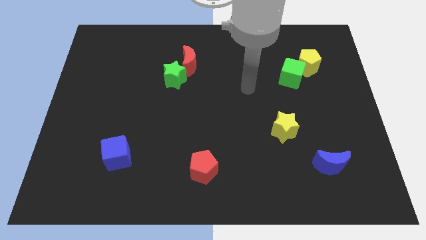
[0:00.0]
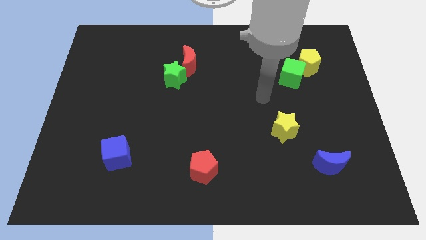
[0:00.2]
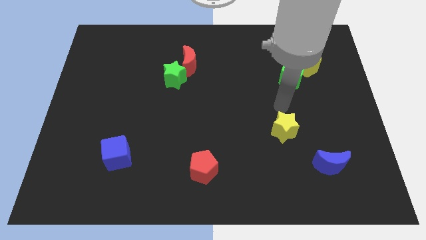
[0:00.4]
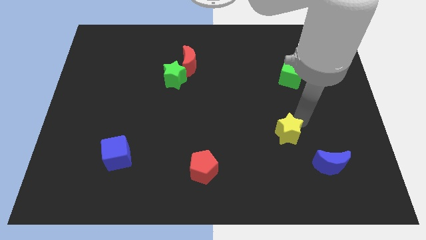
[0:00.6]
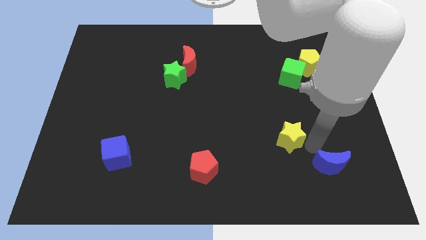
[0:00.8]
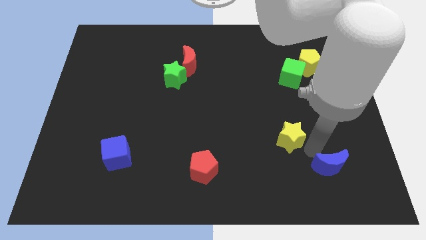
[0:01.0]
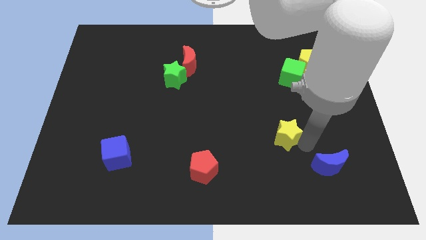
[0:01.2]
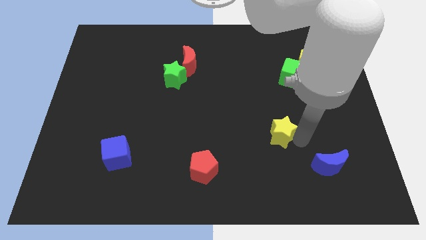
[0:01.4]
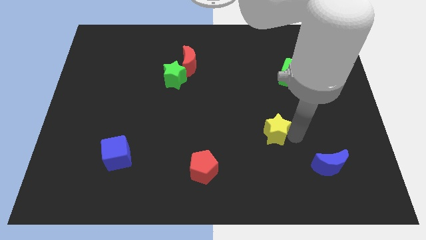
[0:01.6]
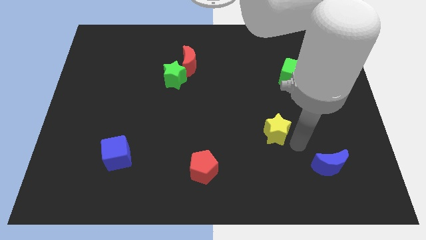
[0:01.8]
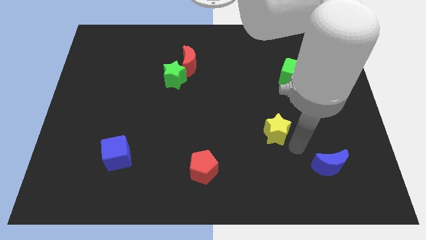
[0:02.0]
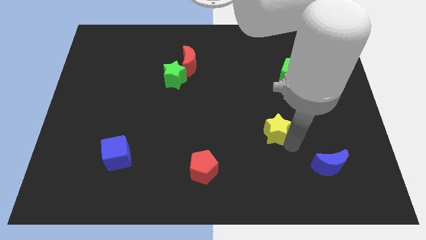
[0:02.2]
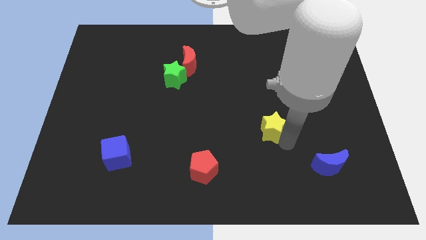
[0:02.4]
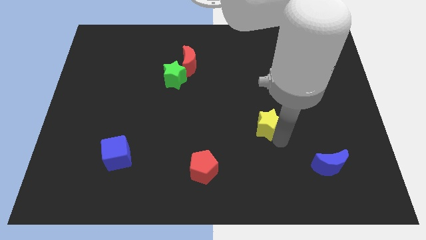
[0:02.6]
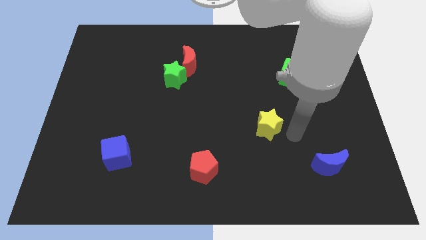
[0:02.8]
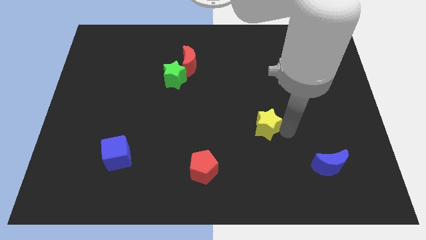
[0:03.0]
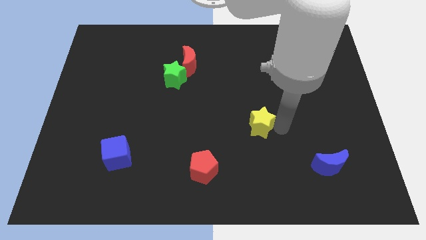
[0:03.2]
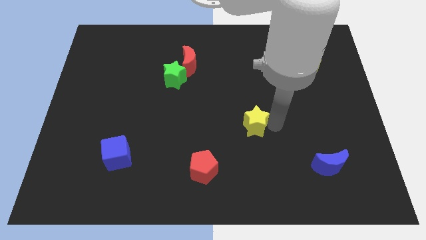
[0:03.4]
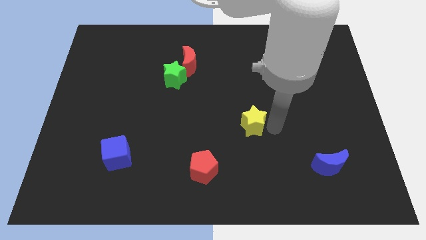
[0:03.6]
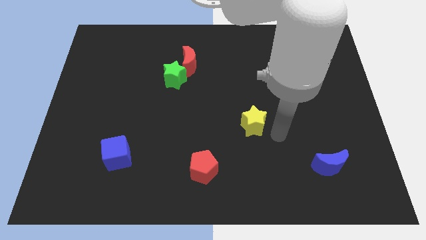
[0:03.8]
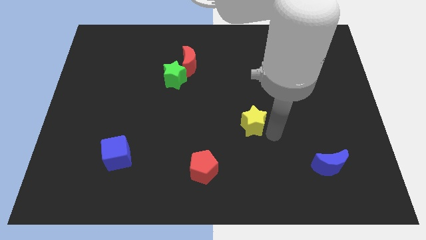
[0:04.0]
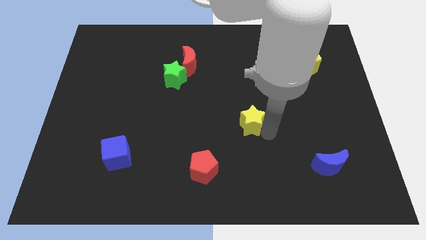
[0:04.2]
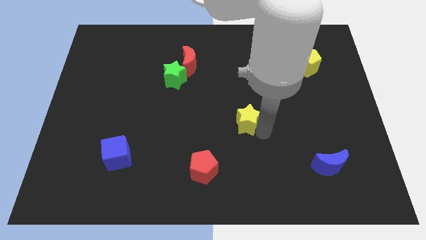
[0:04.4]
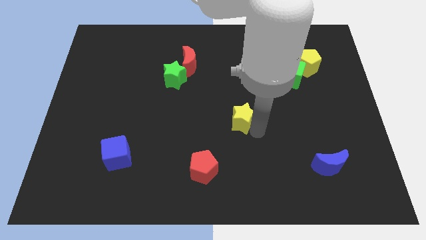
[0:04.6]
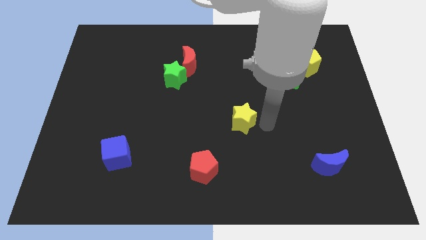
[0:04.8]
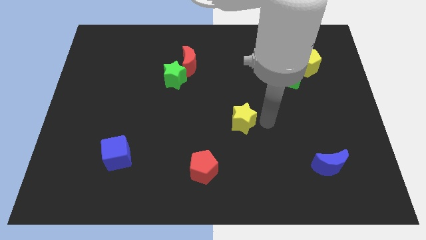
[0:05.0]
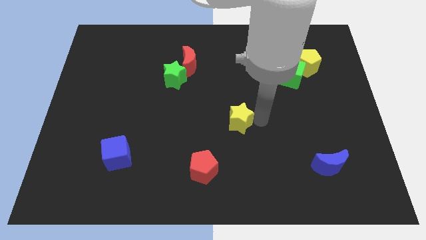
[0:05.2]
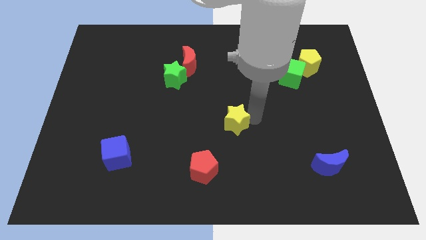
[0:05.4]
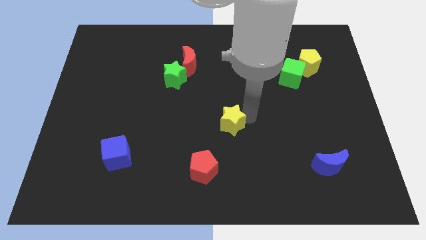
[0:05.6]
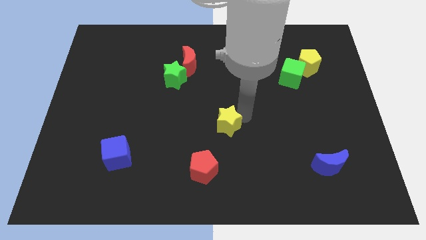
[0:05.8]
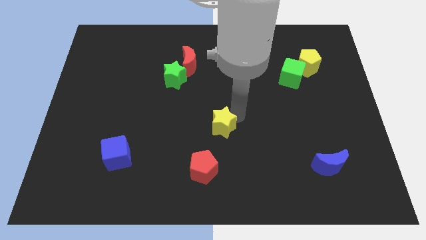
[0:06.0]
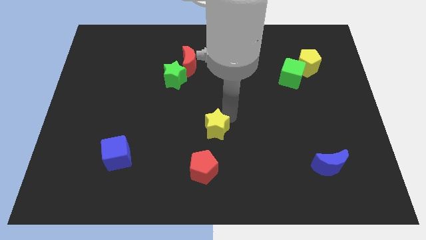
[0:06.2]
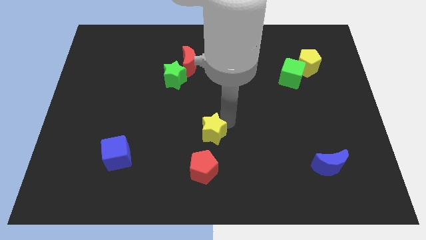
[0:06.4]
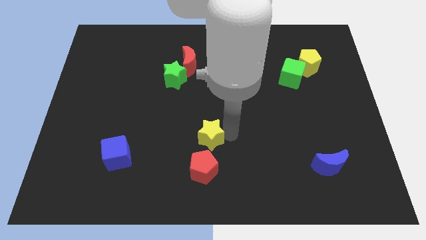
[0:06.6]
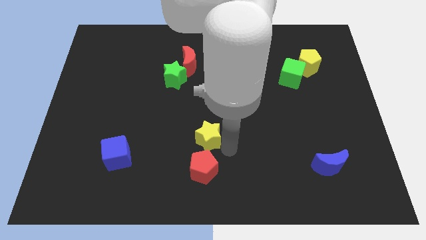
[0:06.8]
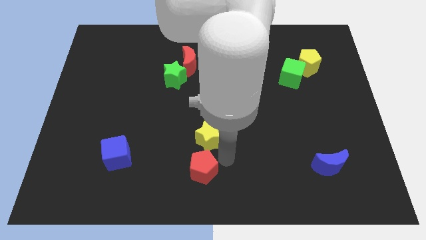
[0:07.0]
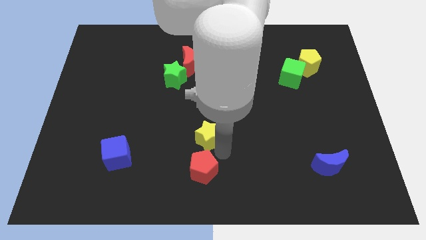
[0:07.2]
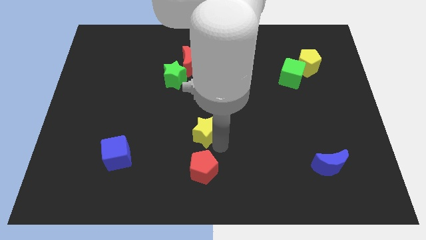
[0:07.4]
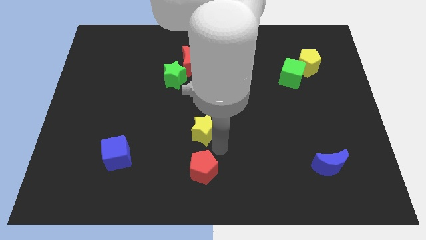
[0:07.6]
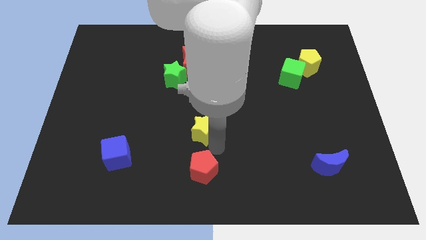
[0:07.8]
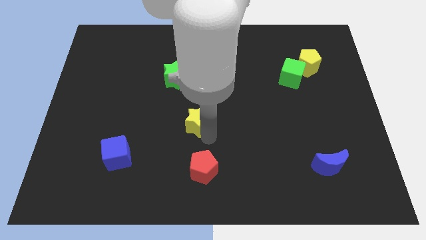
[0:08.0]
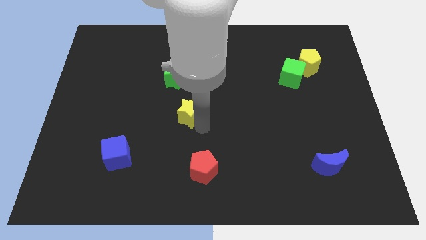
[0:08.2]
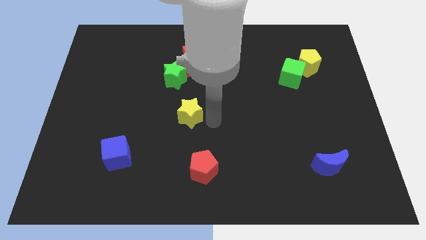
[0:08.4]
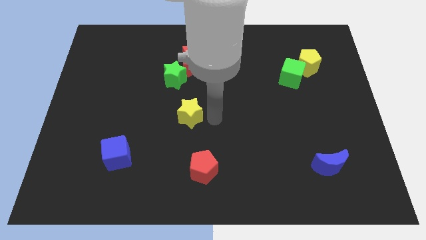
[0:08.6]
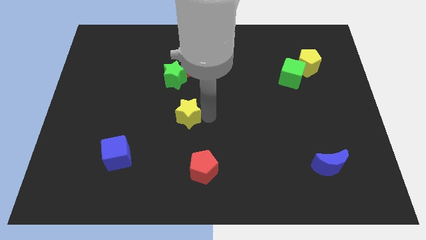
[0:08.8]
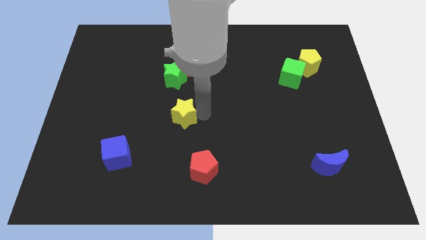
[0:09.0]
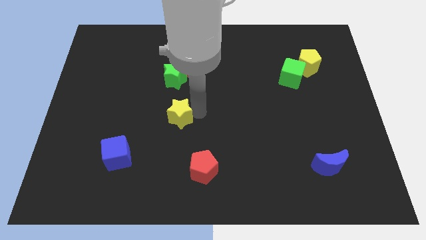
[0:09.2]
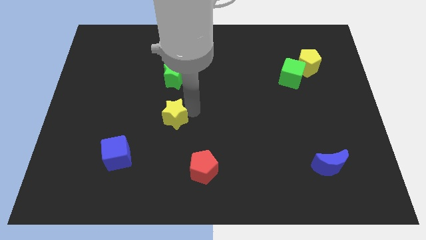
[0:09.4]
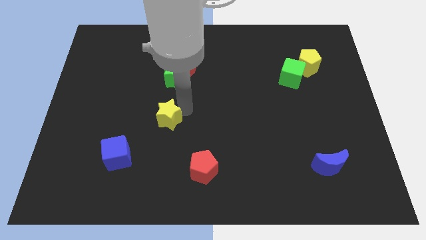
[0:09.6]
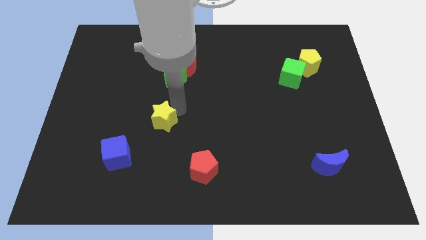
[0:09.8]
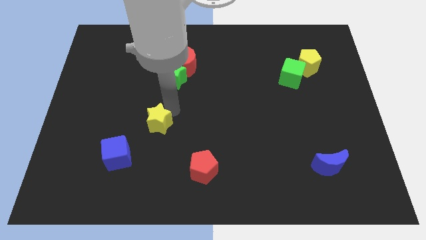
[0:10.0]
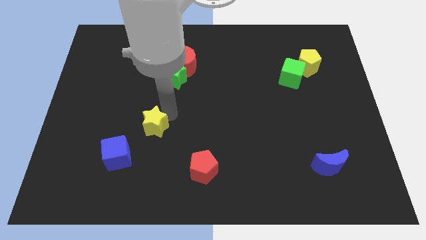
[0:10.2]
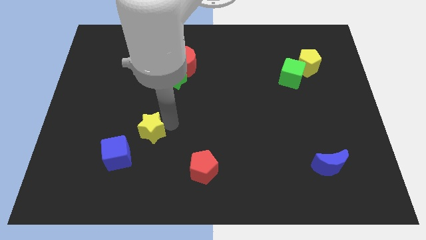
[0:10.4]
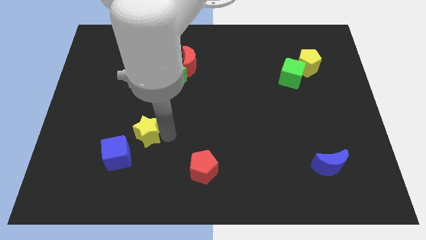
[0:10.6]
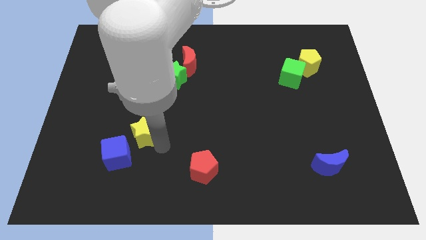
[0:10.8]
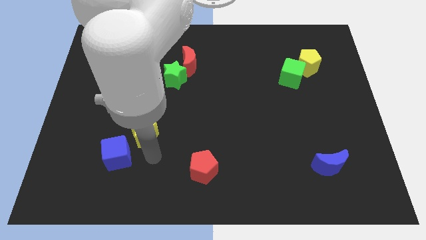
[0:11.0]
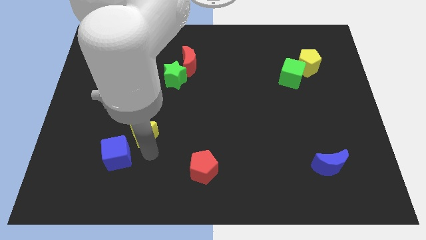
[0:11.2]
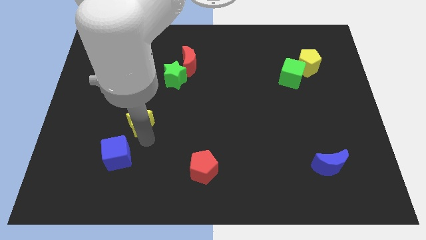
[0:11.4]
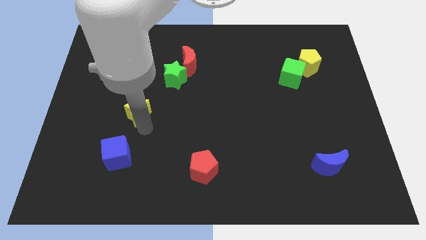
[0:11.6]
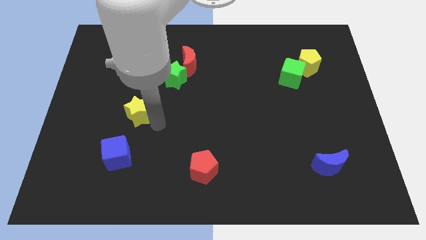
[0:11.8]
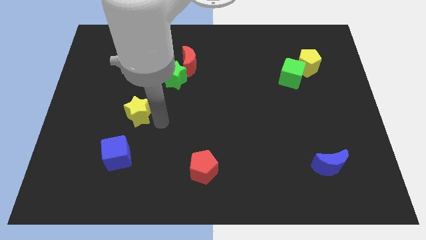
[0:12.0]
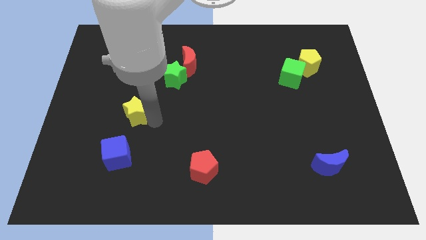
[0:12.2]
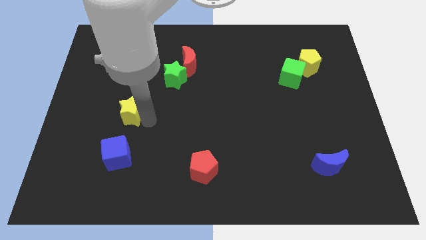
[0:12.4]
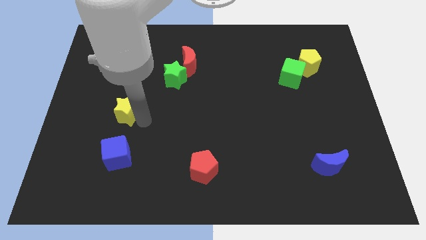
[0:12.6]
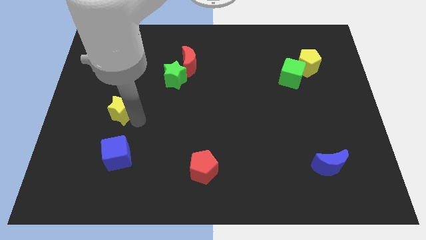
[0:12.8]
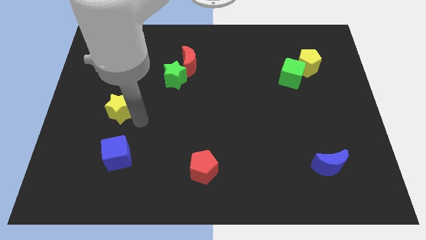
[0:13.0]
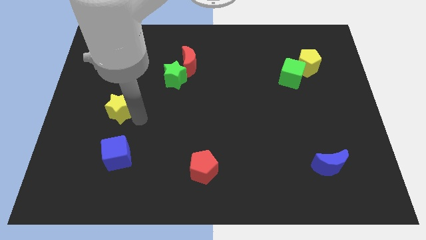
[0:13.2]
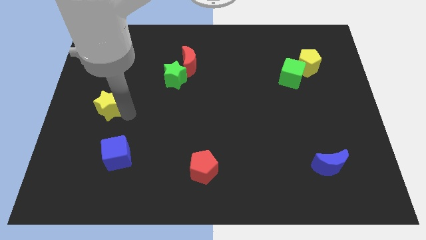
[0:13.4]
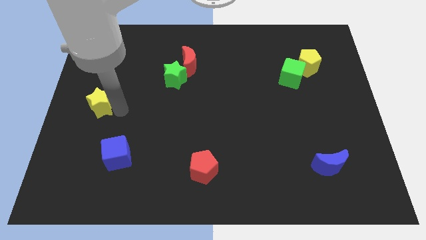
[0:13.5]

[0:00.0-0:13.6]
move the yellow star to the left side of the board
